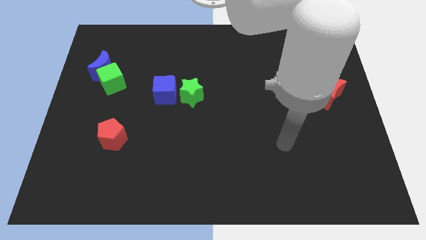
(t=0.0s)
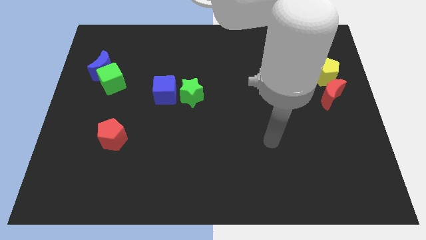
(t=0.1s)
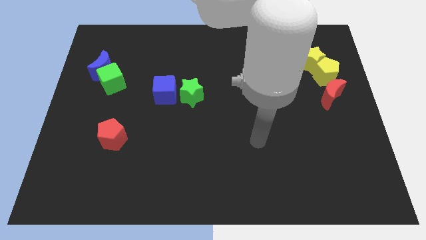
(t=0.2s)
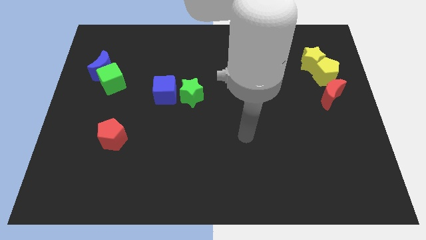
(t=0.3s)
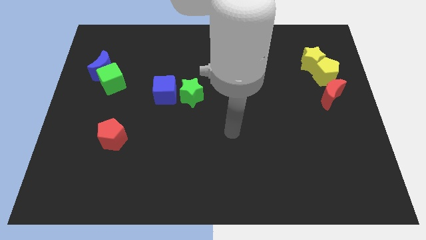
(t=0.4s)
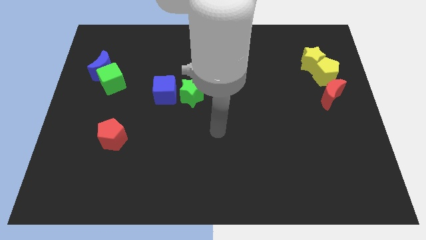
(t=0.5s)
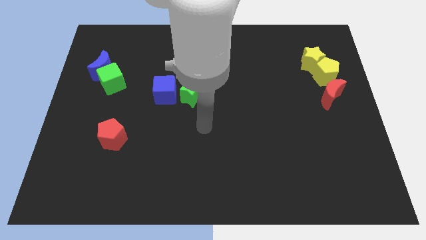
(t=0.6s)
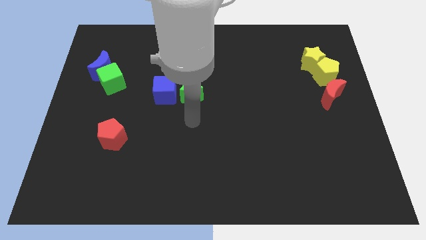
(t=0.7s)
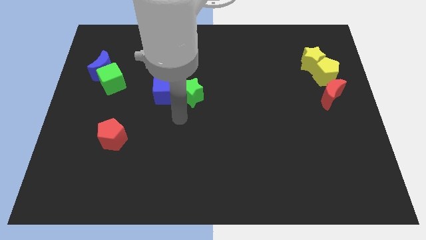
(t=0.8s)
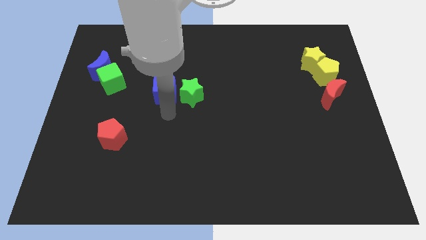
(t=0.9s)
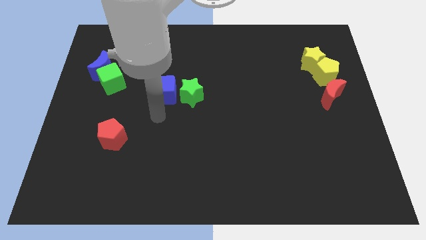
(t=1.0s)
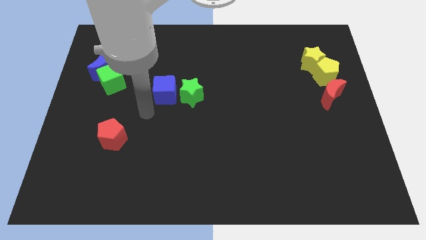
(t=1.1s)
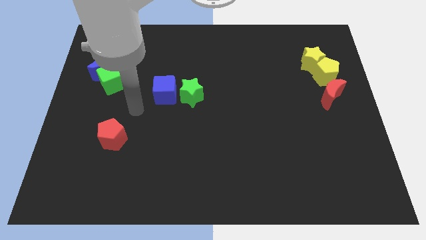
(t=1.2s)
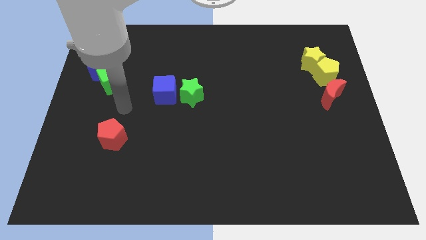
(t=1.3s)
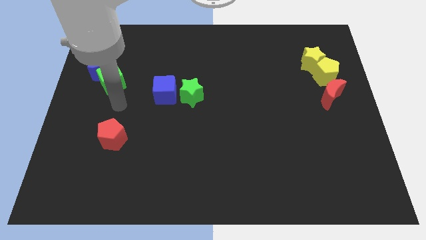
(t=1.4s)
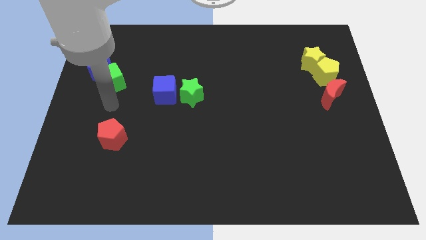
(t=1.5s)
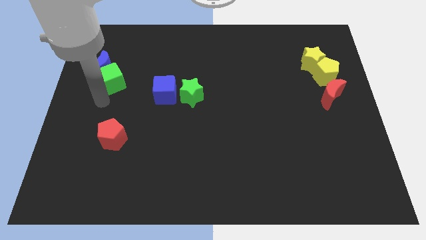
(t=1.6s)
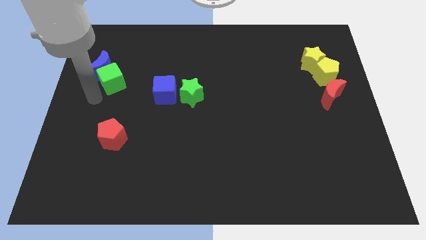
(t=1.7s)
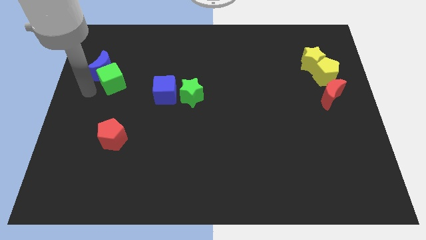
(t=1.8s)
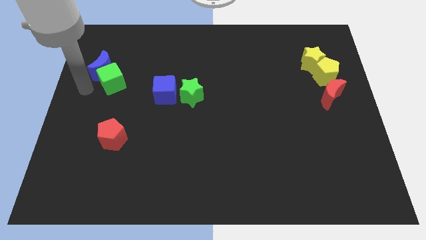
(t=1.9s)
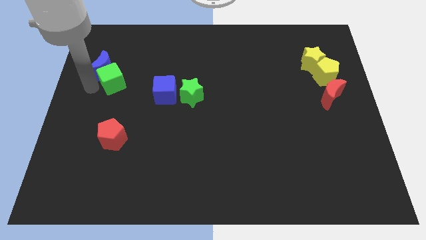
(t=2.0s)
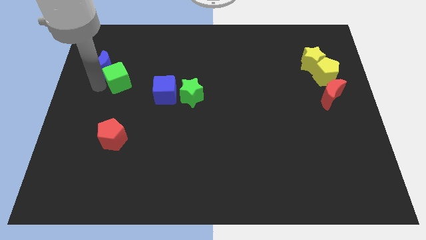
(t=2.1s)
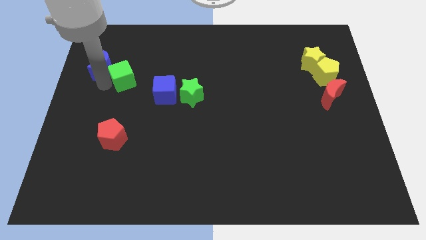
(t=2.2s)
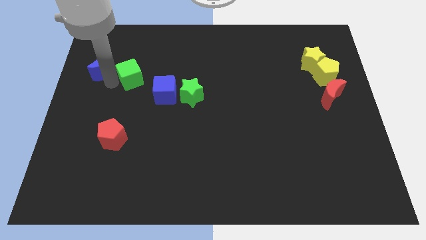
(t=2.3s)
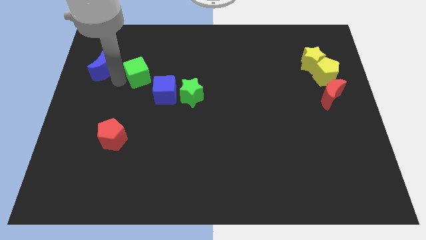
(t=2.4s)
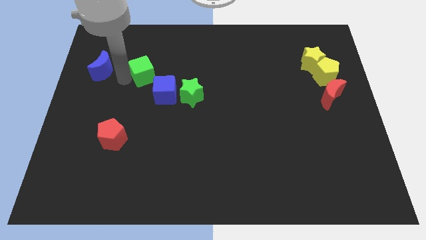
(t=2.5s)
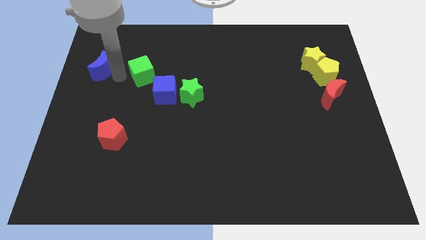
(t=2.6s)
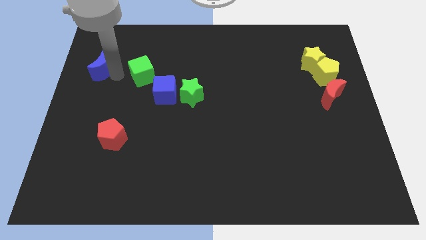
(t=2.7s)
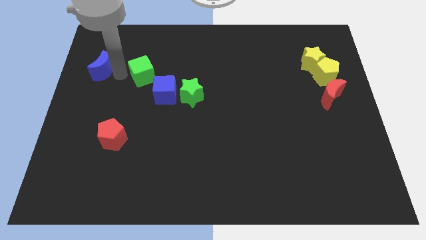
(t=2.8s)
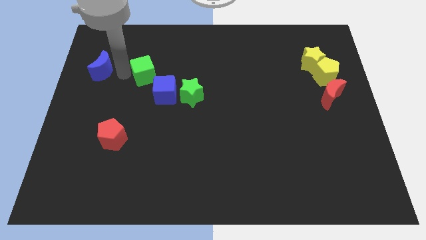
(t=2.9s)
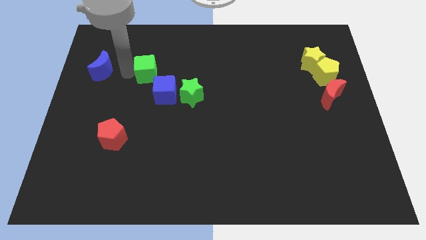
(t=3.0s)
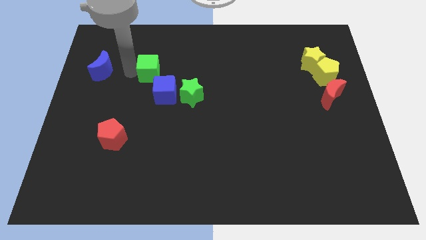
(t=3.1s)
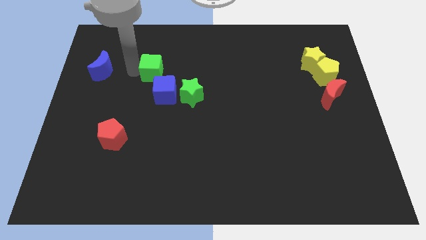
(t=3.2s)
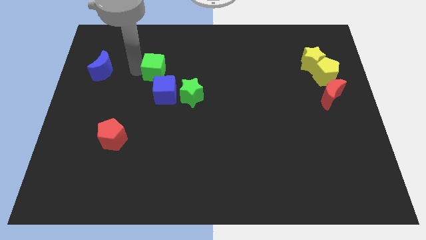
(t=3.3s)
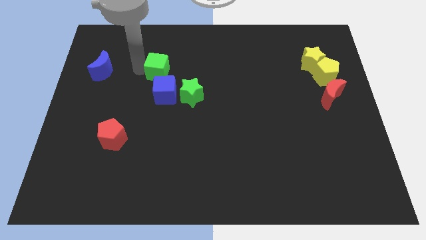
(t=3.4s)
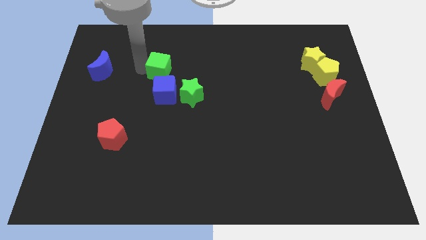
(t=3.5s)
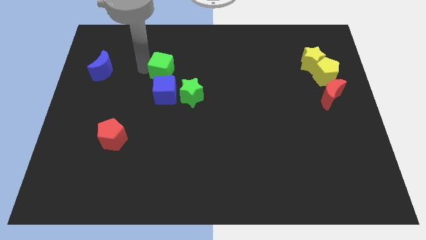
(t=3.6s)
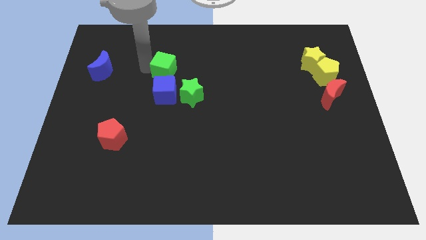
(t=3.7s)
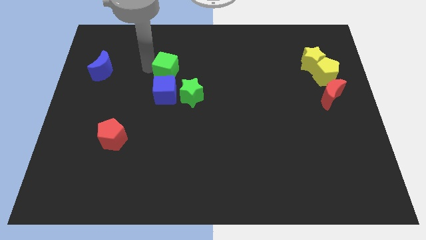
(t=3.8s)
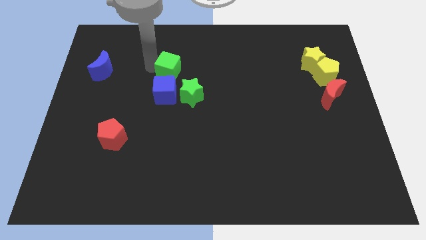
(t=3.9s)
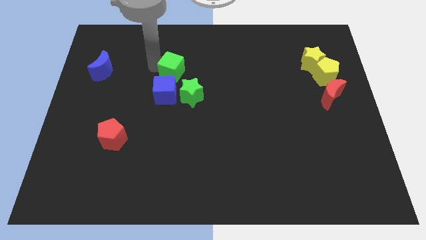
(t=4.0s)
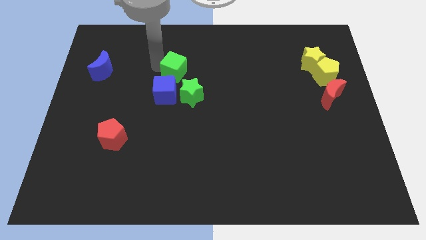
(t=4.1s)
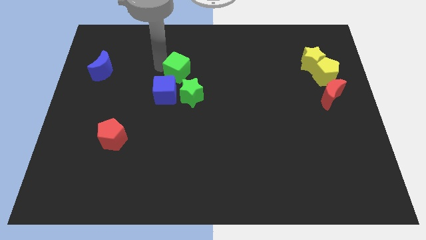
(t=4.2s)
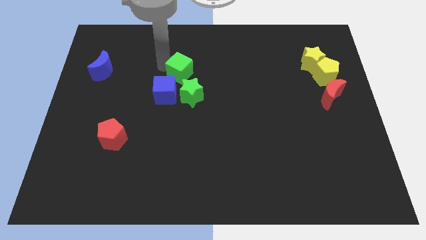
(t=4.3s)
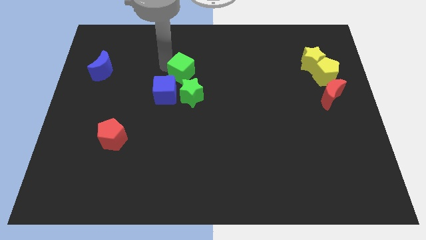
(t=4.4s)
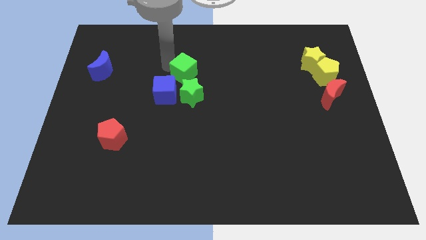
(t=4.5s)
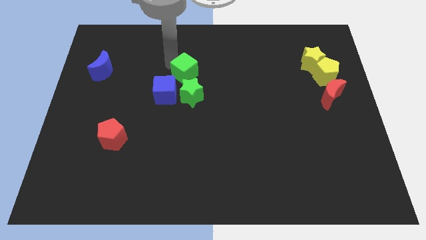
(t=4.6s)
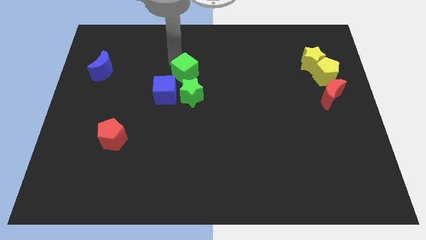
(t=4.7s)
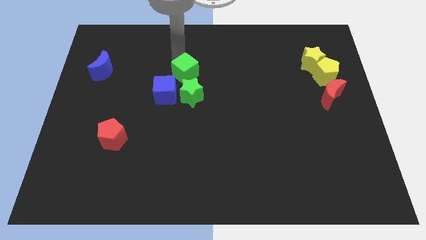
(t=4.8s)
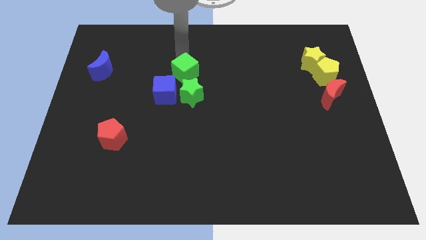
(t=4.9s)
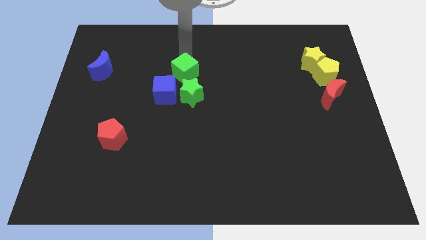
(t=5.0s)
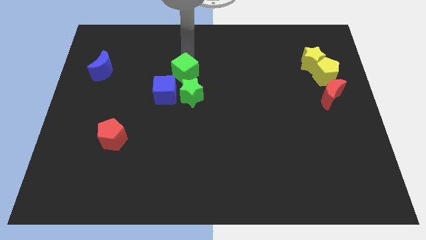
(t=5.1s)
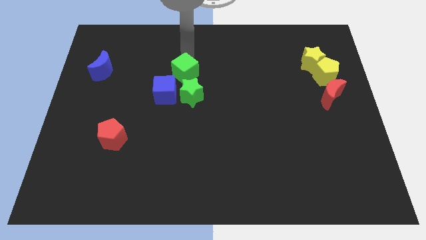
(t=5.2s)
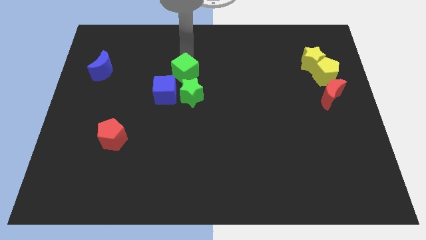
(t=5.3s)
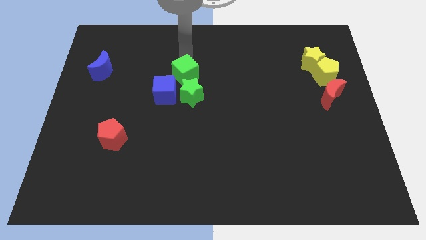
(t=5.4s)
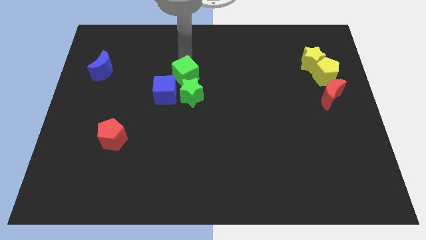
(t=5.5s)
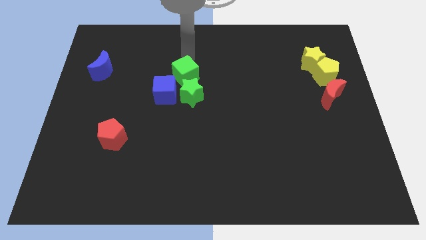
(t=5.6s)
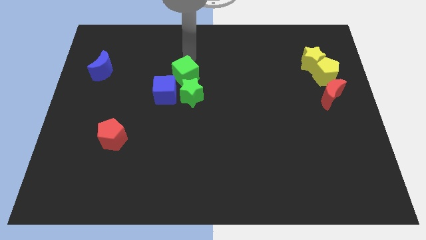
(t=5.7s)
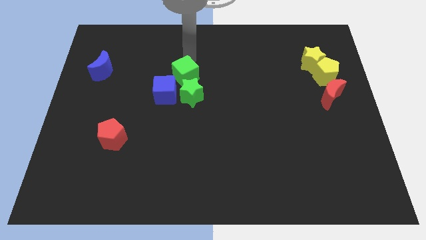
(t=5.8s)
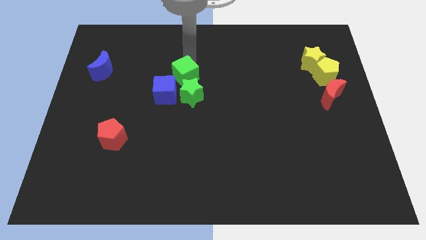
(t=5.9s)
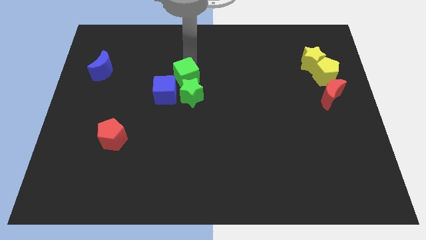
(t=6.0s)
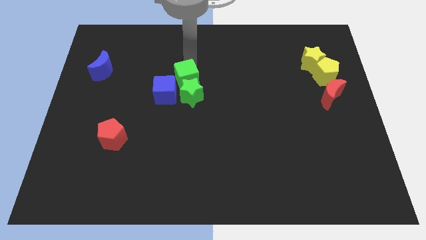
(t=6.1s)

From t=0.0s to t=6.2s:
push the green cube to the green star

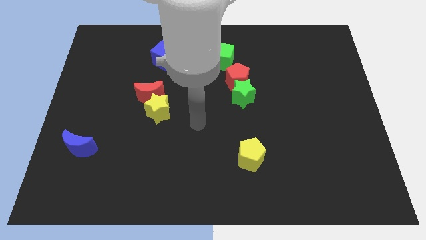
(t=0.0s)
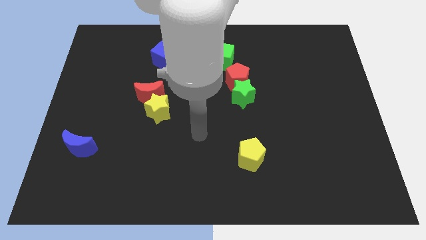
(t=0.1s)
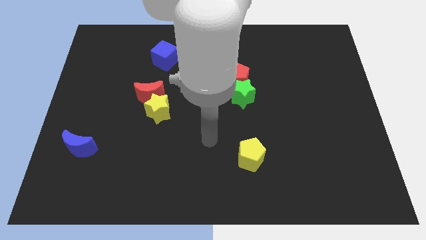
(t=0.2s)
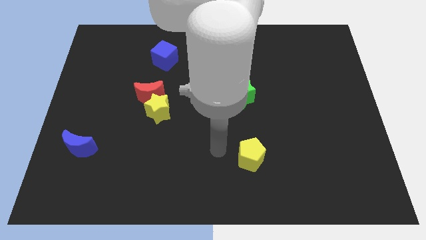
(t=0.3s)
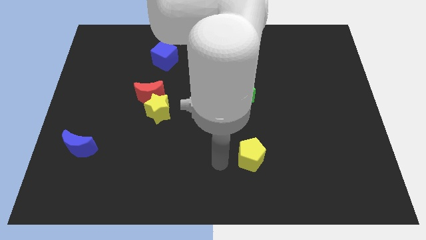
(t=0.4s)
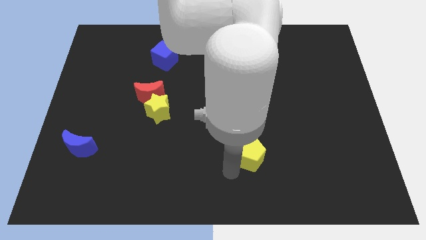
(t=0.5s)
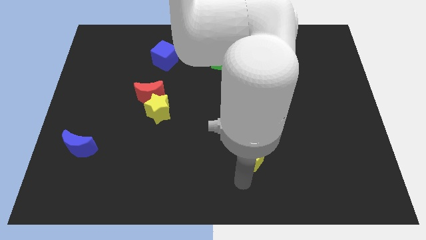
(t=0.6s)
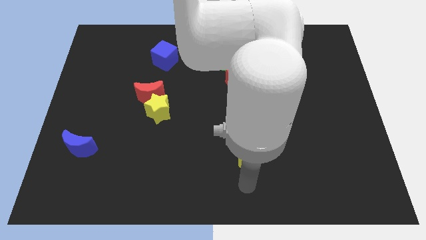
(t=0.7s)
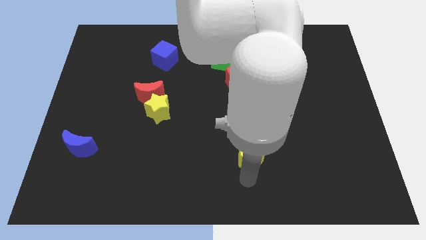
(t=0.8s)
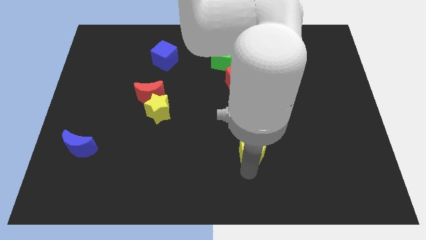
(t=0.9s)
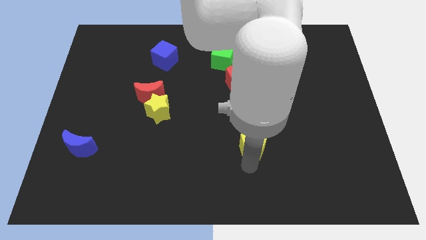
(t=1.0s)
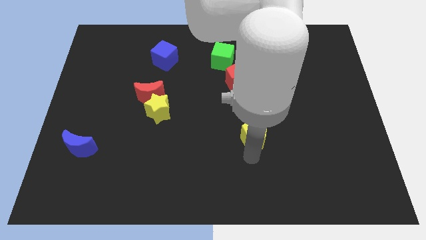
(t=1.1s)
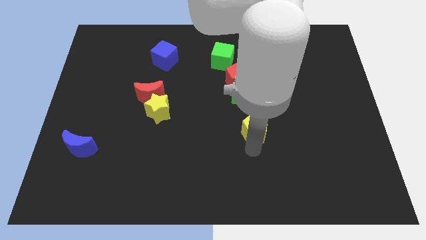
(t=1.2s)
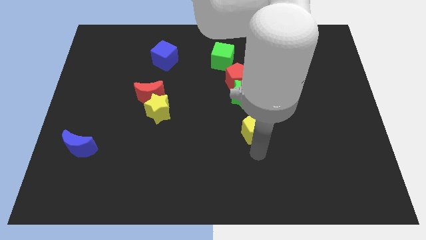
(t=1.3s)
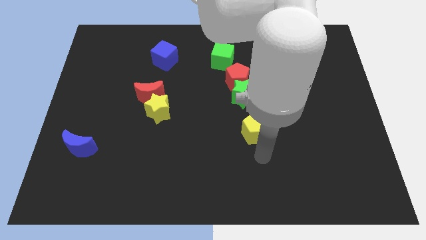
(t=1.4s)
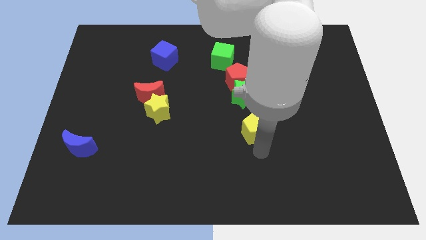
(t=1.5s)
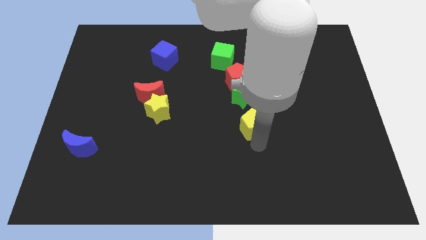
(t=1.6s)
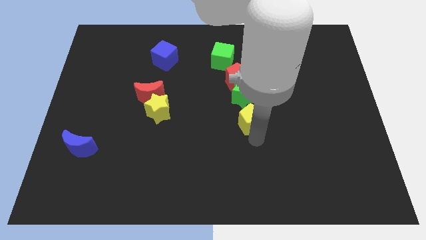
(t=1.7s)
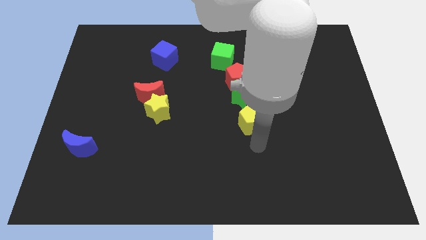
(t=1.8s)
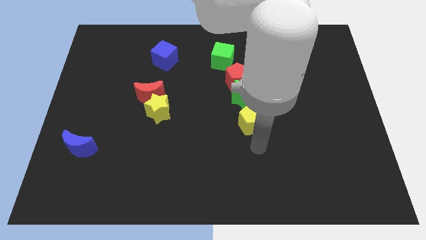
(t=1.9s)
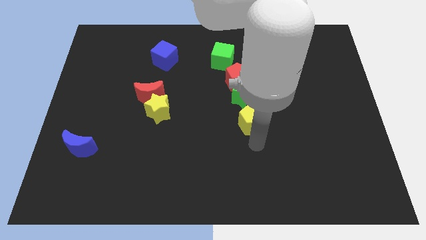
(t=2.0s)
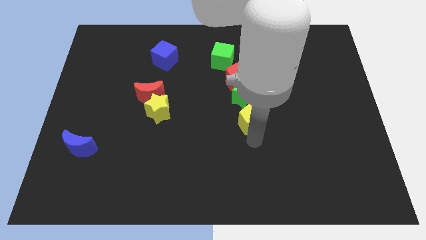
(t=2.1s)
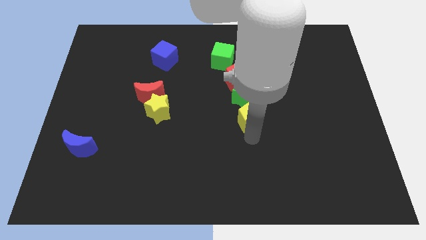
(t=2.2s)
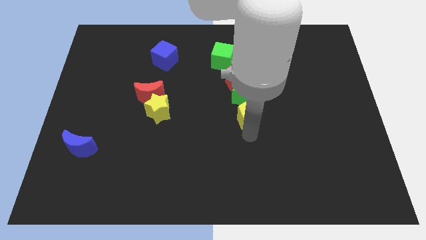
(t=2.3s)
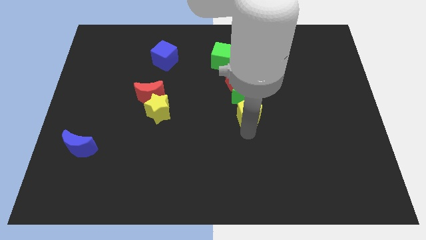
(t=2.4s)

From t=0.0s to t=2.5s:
push the yellow pentagon close to the green star
